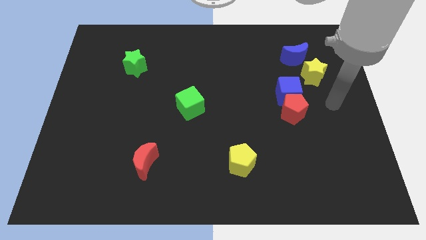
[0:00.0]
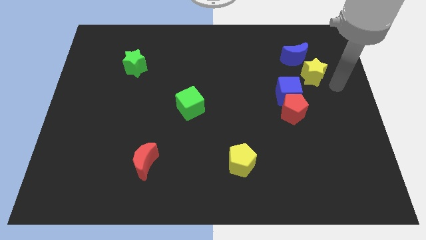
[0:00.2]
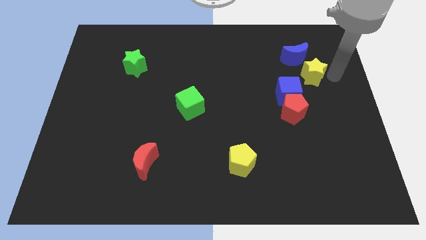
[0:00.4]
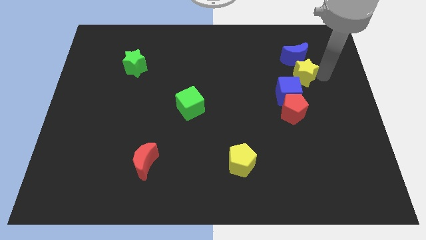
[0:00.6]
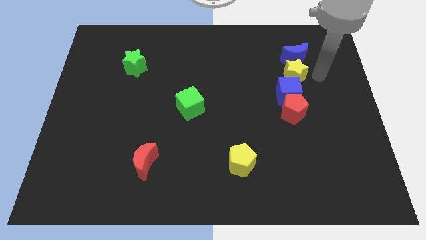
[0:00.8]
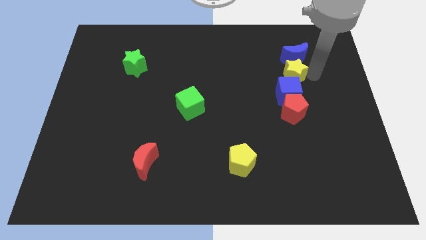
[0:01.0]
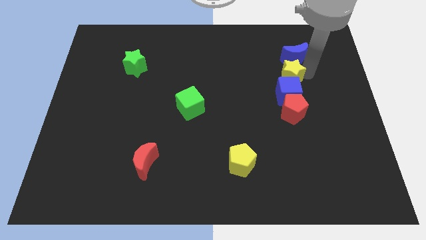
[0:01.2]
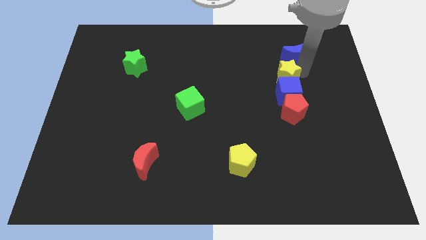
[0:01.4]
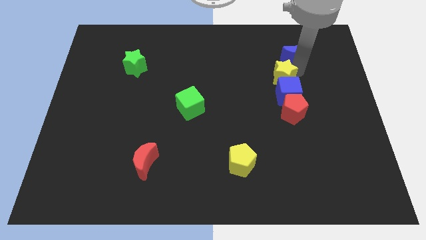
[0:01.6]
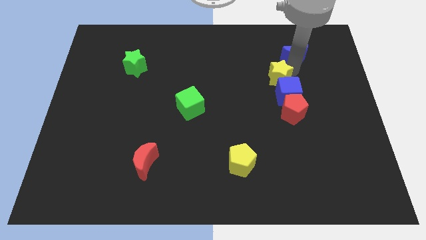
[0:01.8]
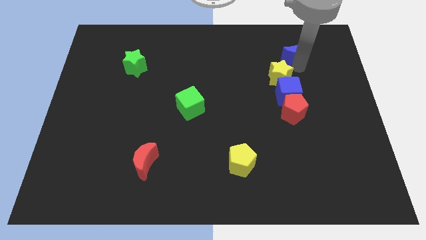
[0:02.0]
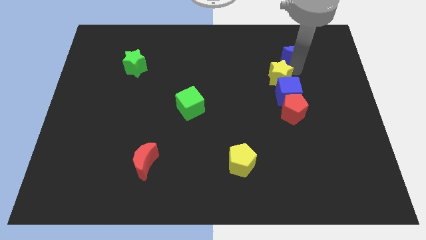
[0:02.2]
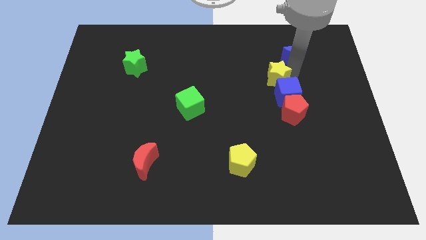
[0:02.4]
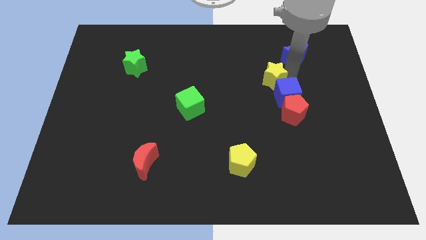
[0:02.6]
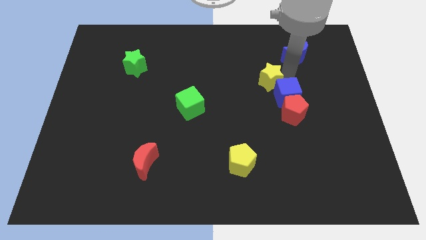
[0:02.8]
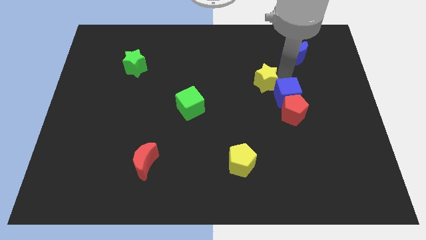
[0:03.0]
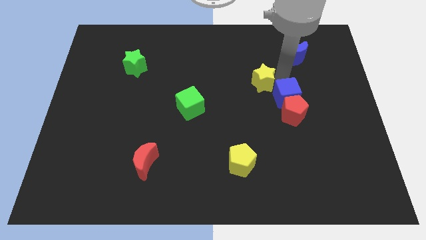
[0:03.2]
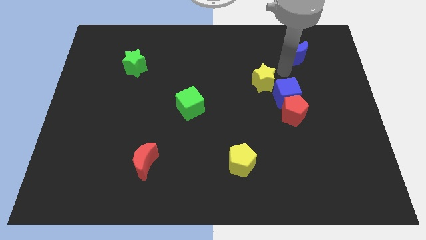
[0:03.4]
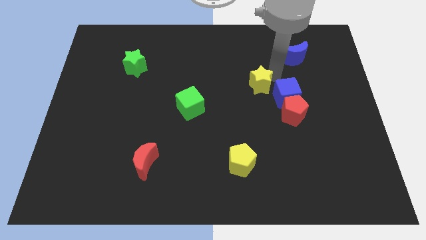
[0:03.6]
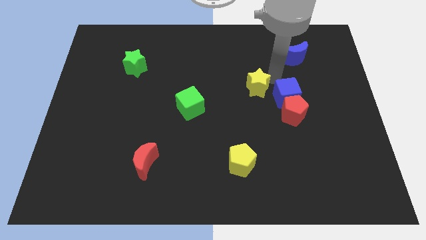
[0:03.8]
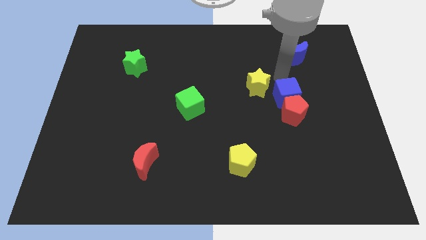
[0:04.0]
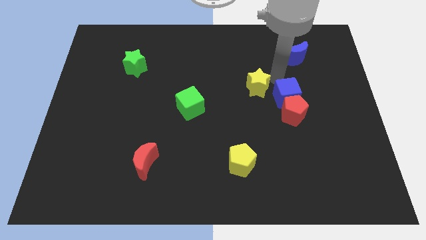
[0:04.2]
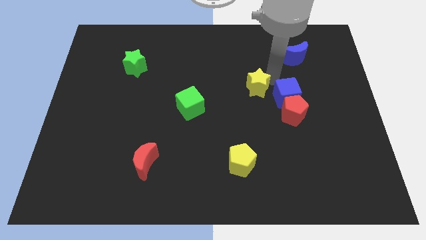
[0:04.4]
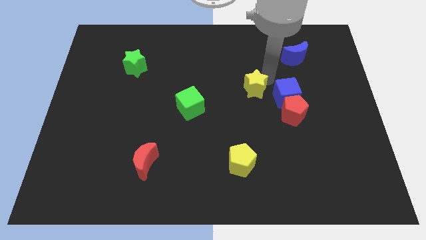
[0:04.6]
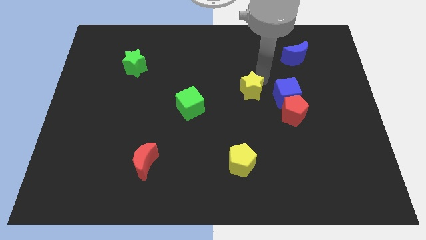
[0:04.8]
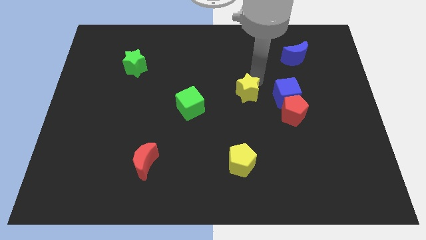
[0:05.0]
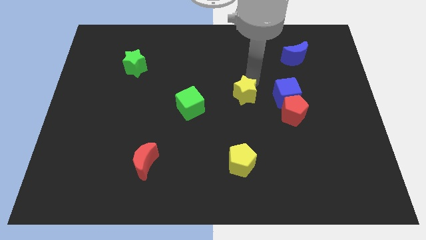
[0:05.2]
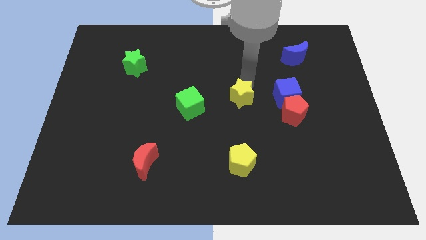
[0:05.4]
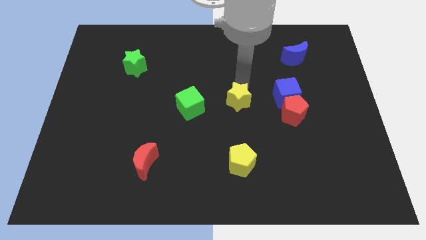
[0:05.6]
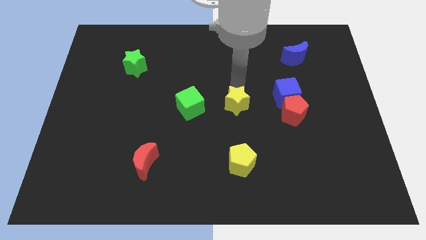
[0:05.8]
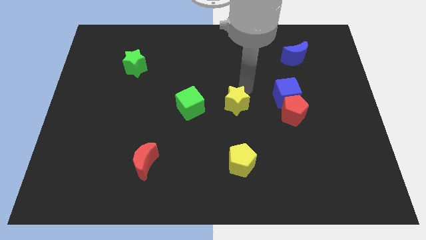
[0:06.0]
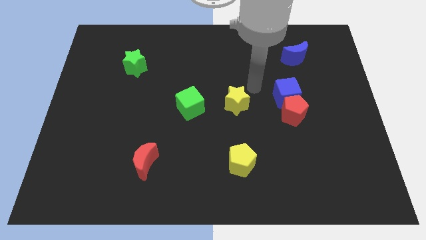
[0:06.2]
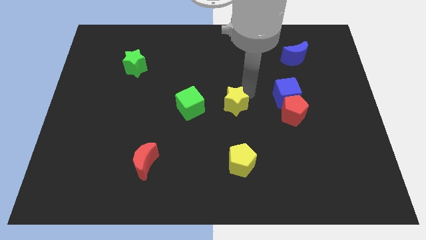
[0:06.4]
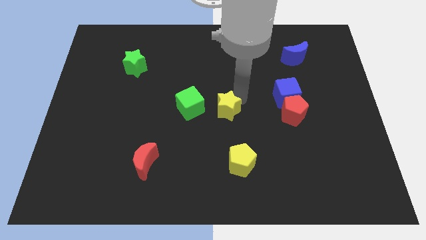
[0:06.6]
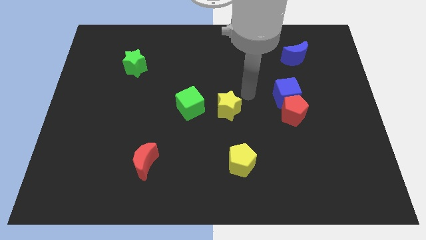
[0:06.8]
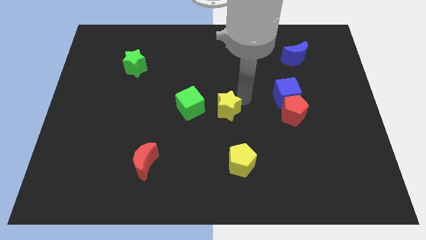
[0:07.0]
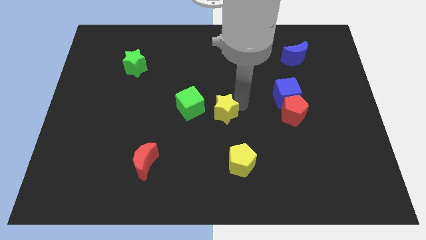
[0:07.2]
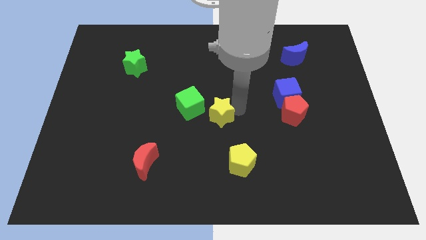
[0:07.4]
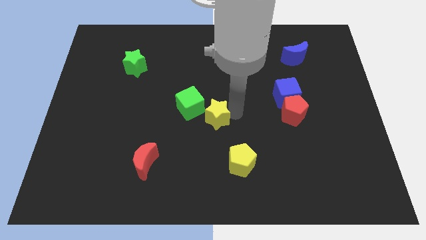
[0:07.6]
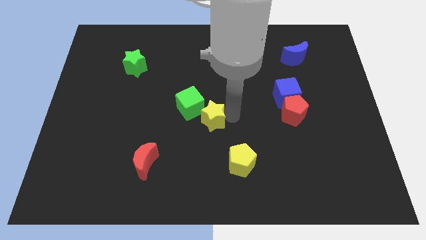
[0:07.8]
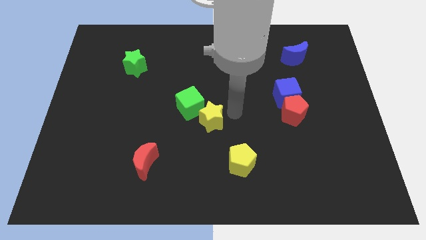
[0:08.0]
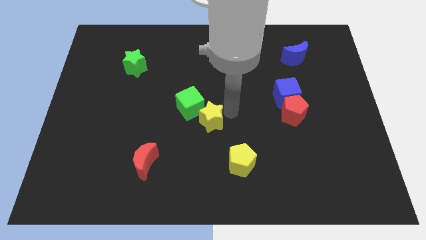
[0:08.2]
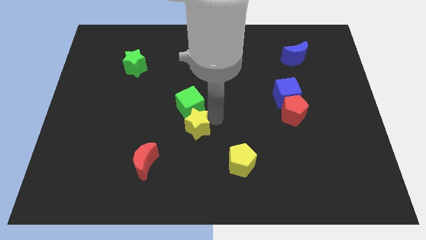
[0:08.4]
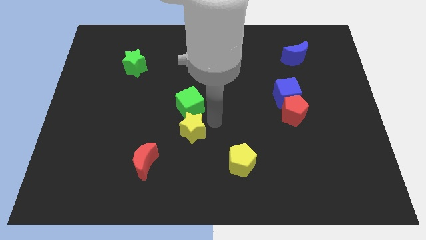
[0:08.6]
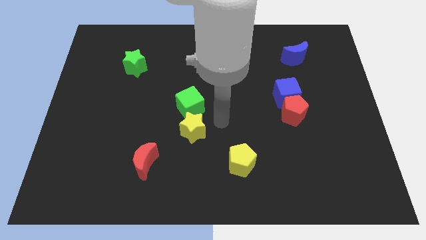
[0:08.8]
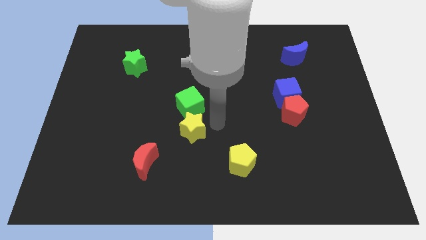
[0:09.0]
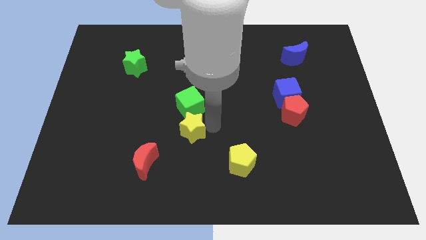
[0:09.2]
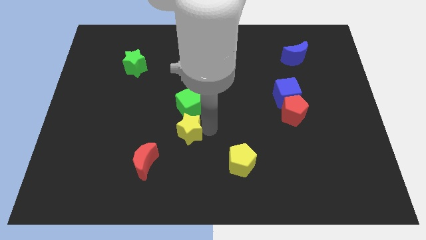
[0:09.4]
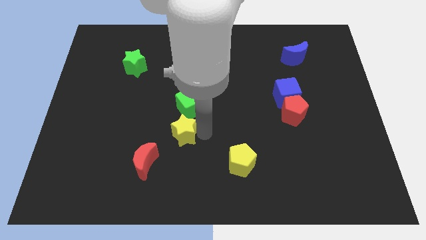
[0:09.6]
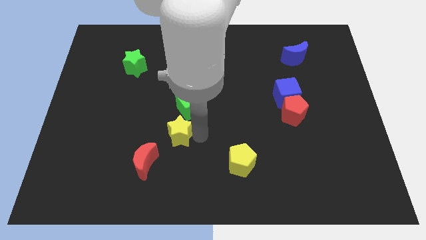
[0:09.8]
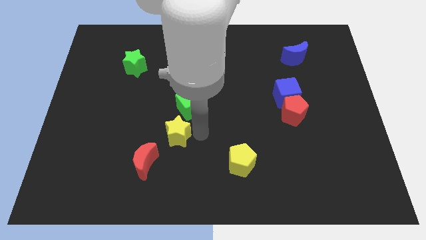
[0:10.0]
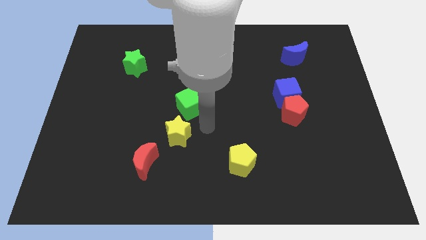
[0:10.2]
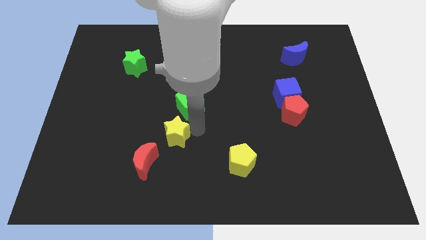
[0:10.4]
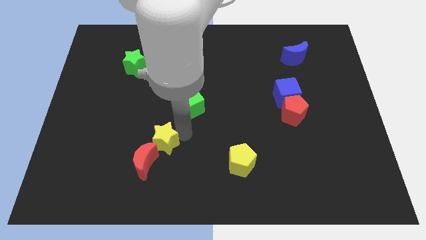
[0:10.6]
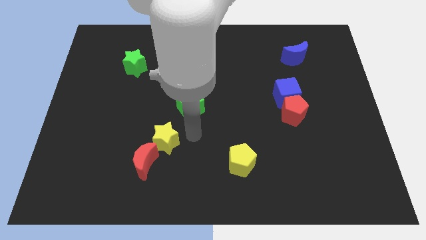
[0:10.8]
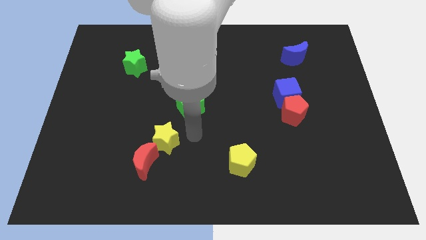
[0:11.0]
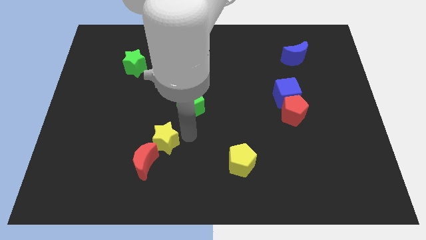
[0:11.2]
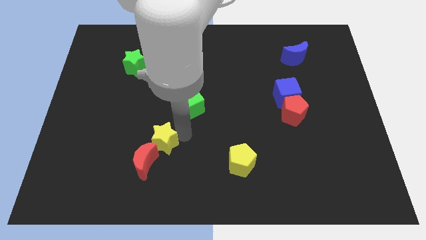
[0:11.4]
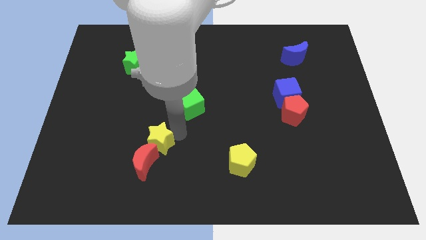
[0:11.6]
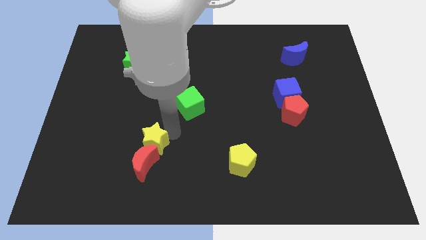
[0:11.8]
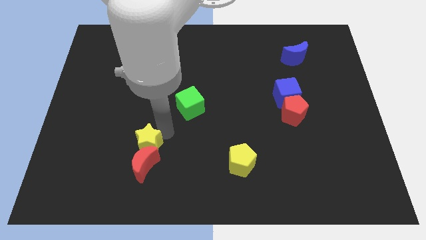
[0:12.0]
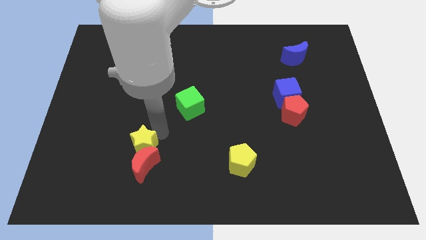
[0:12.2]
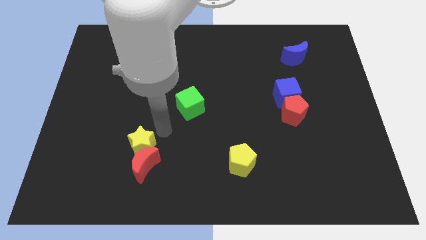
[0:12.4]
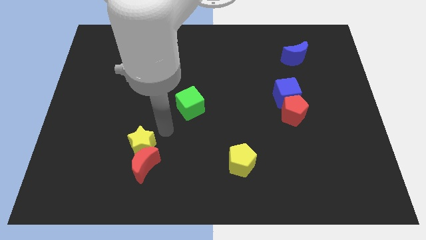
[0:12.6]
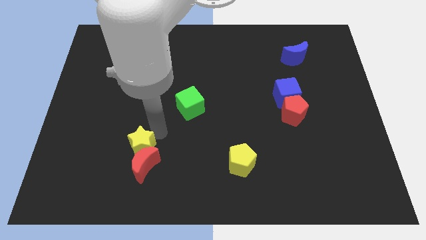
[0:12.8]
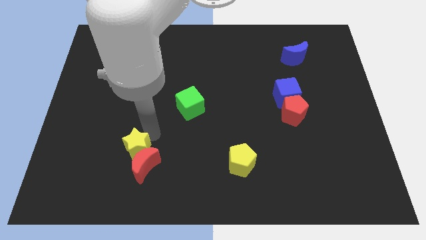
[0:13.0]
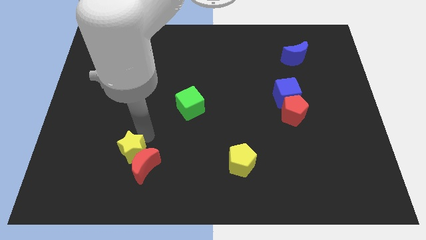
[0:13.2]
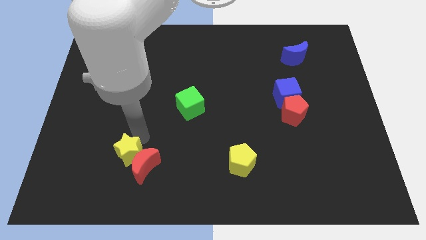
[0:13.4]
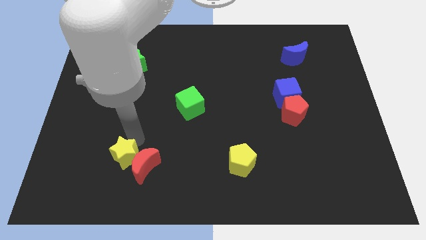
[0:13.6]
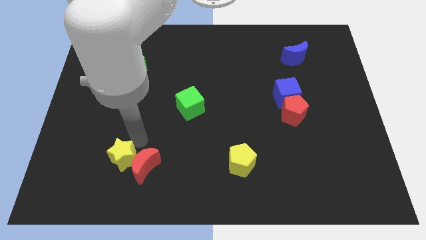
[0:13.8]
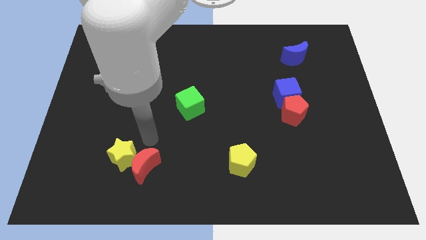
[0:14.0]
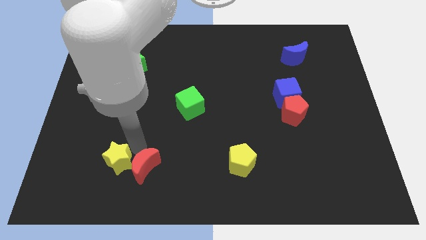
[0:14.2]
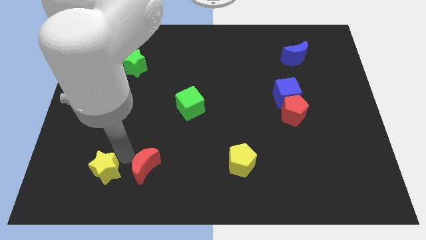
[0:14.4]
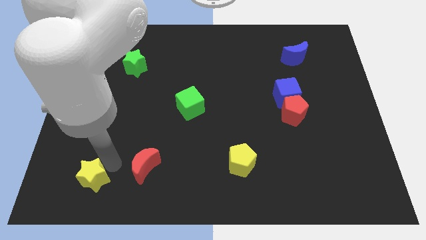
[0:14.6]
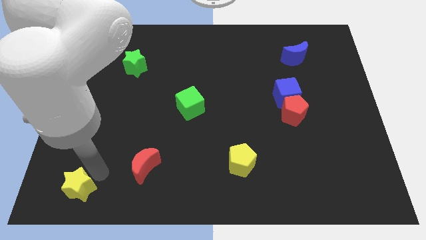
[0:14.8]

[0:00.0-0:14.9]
put the yellow star to the bottom left

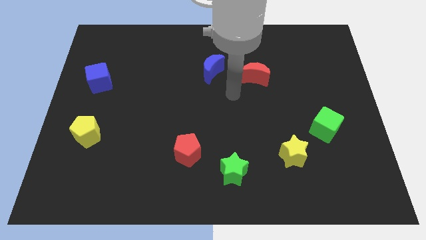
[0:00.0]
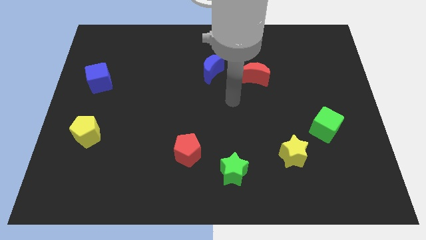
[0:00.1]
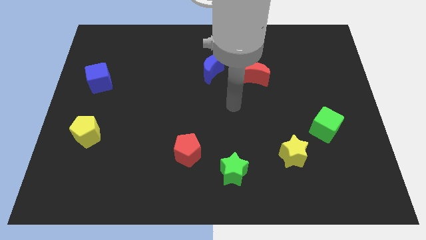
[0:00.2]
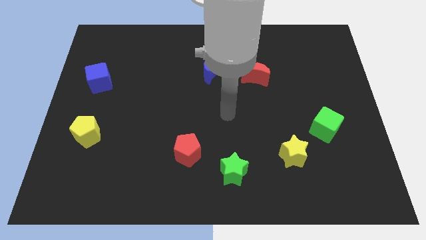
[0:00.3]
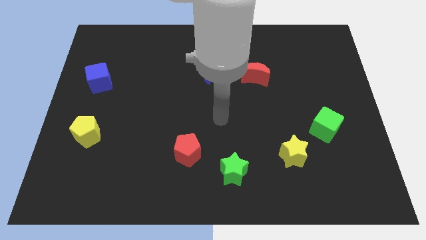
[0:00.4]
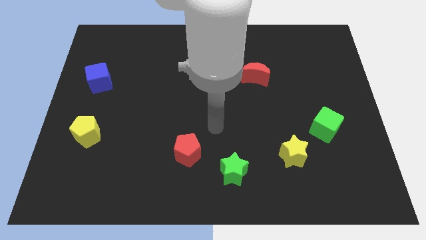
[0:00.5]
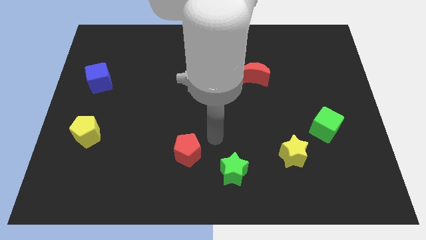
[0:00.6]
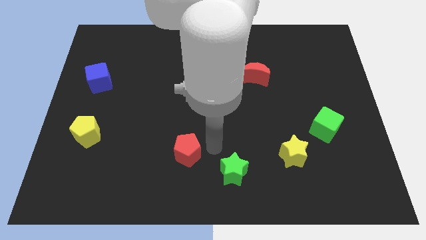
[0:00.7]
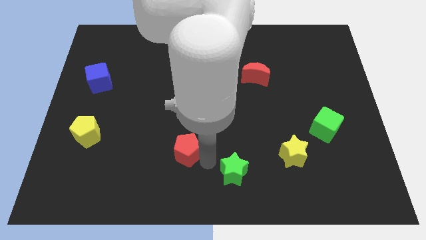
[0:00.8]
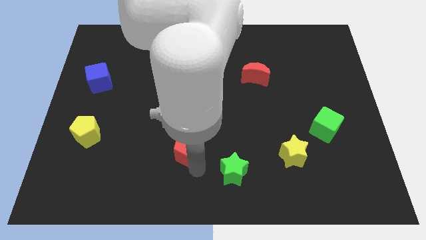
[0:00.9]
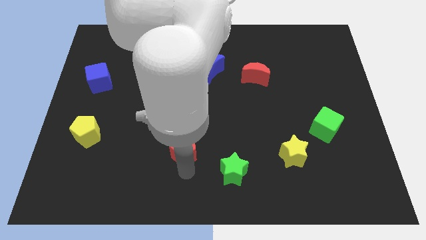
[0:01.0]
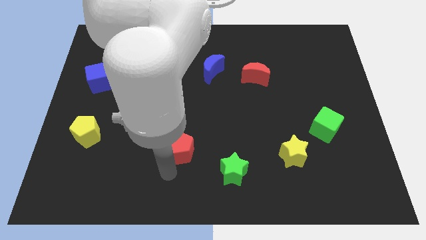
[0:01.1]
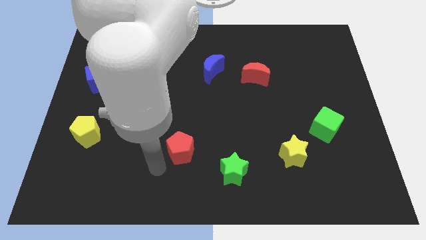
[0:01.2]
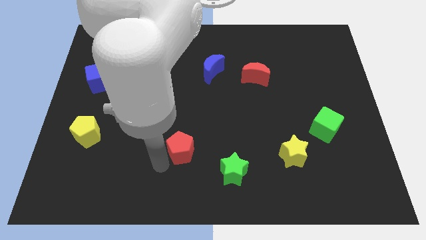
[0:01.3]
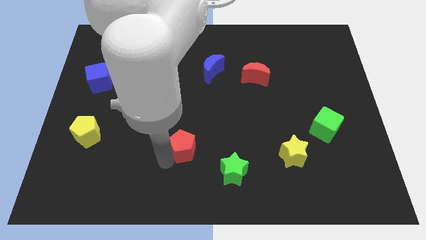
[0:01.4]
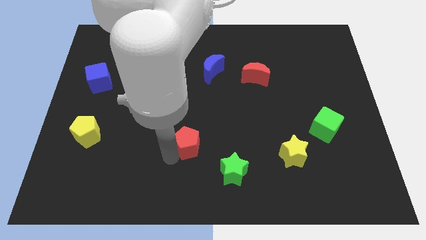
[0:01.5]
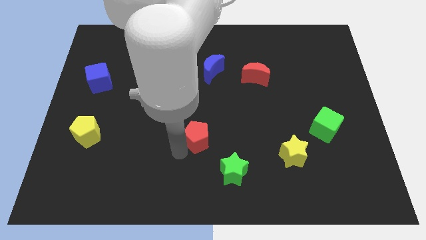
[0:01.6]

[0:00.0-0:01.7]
move the red pentagon to the middle
